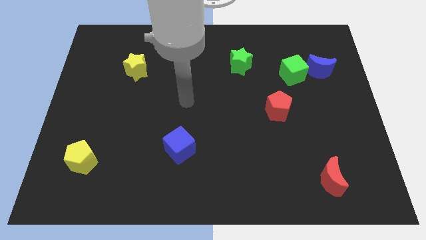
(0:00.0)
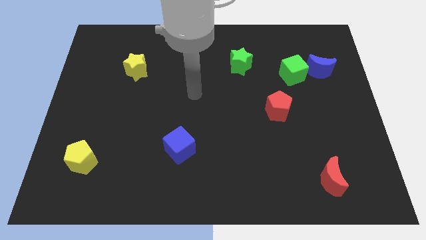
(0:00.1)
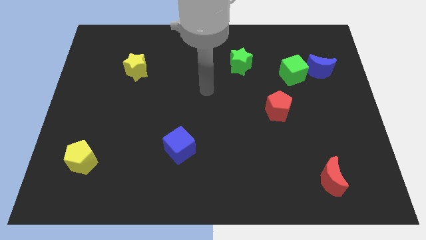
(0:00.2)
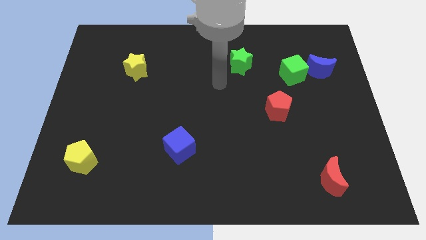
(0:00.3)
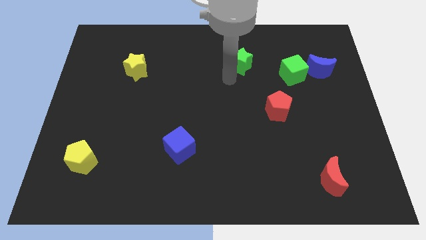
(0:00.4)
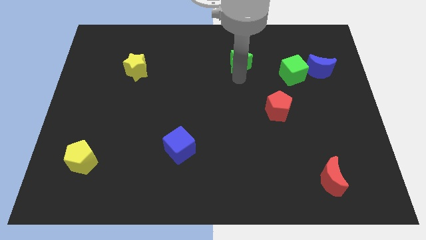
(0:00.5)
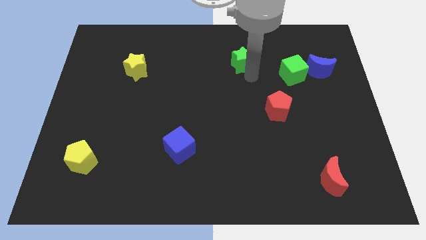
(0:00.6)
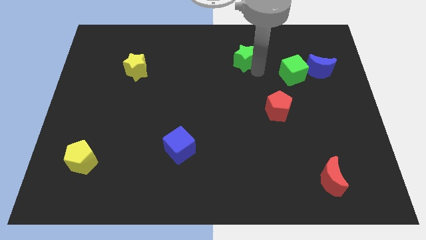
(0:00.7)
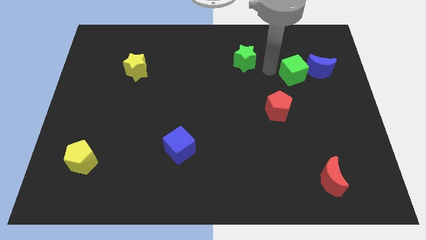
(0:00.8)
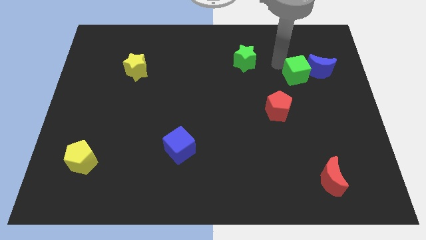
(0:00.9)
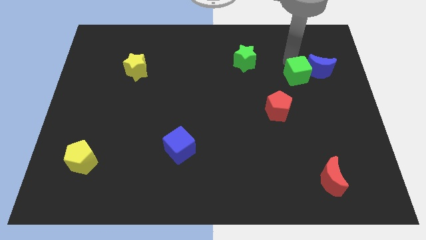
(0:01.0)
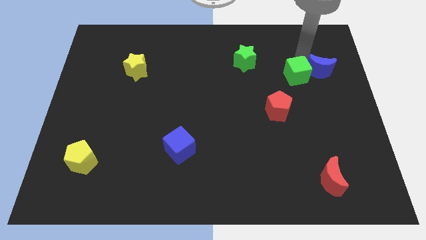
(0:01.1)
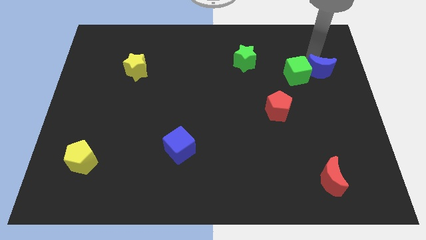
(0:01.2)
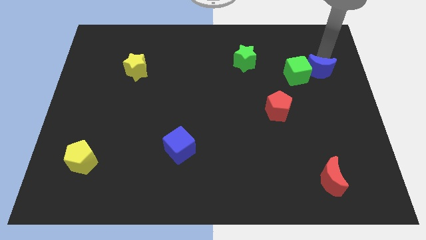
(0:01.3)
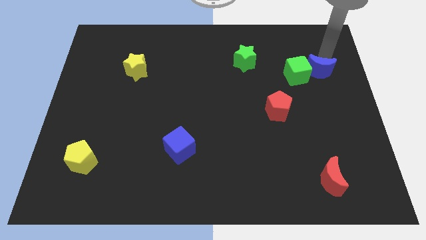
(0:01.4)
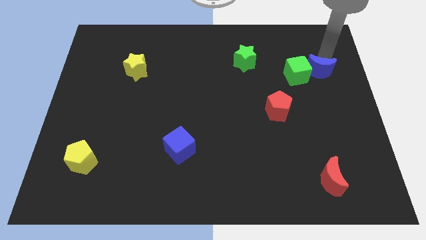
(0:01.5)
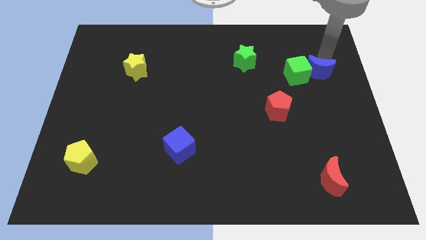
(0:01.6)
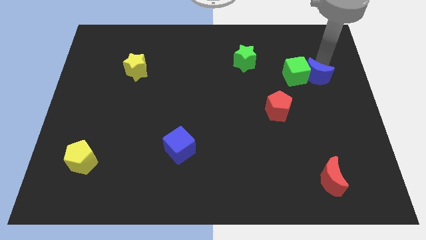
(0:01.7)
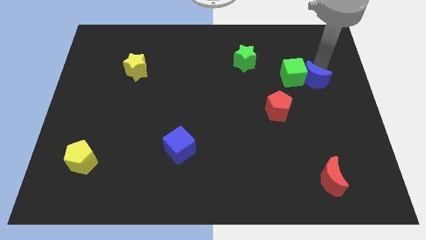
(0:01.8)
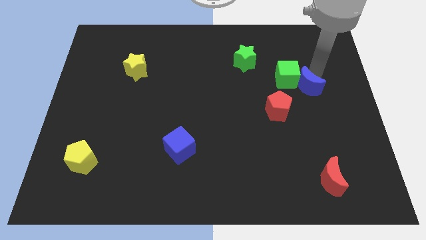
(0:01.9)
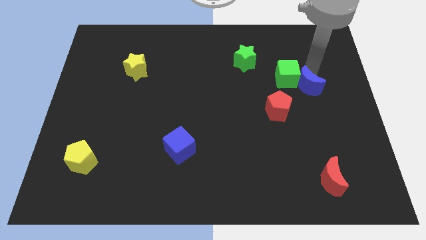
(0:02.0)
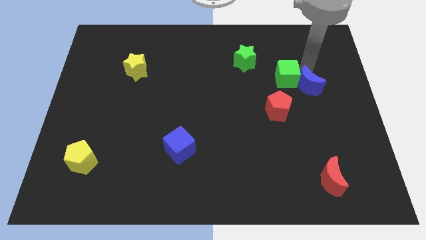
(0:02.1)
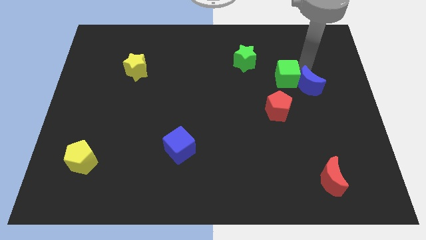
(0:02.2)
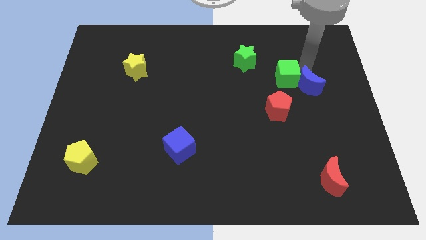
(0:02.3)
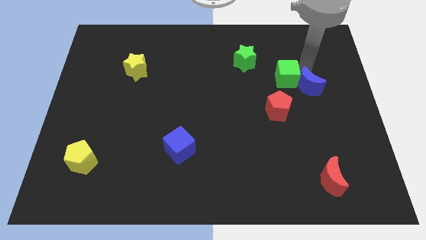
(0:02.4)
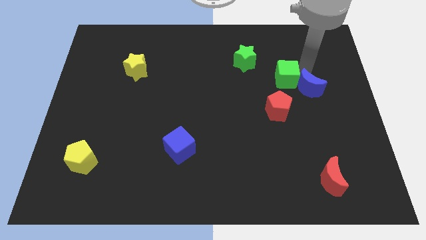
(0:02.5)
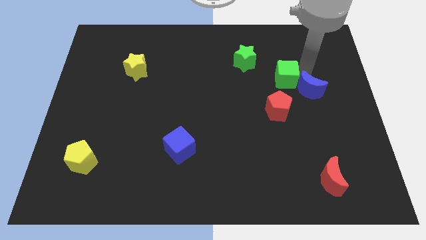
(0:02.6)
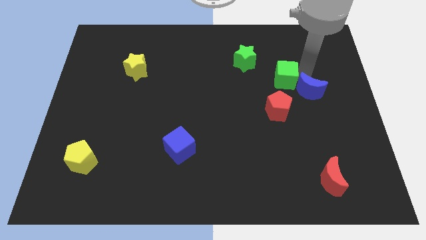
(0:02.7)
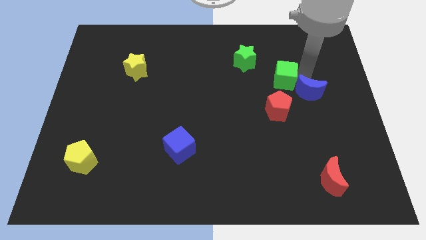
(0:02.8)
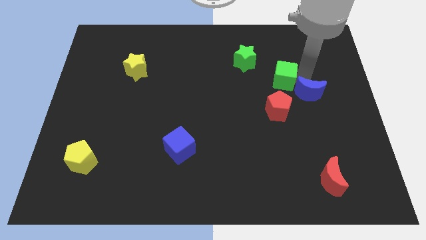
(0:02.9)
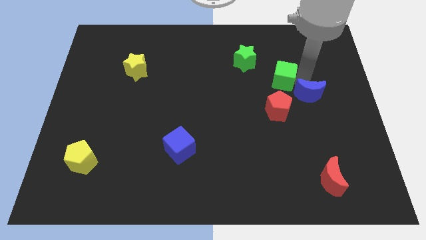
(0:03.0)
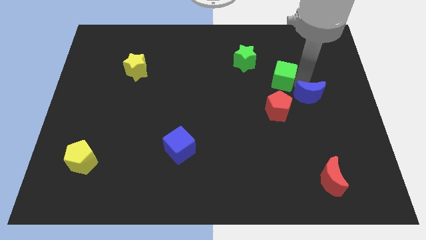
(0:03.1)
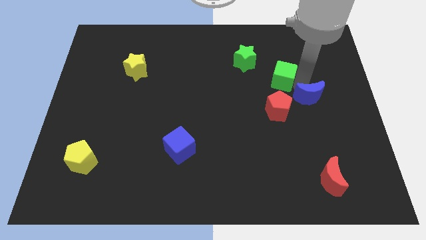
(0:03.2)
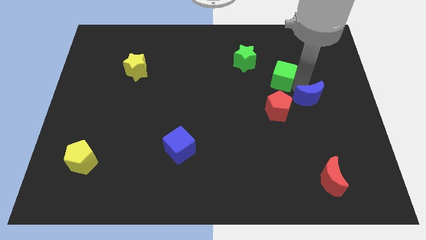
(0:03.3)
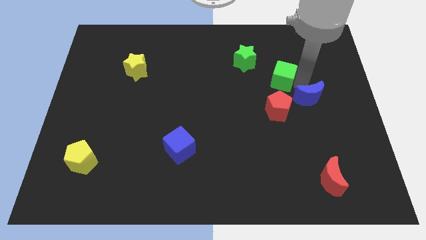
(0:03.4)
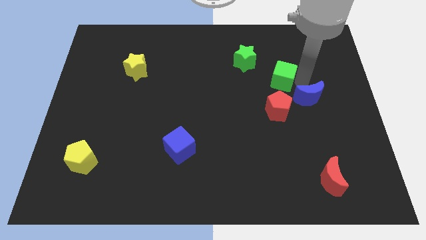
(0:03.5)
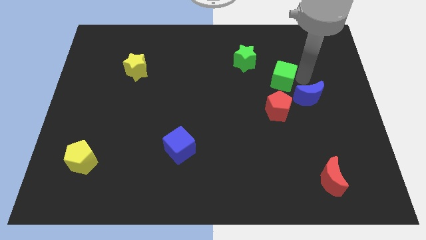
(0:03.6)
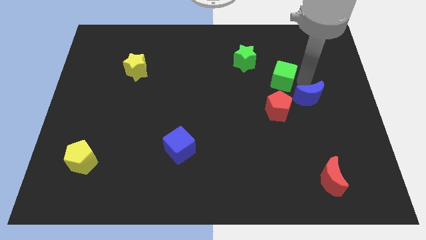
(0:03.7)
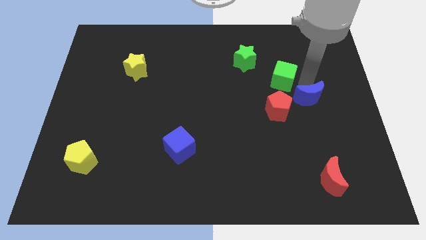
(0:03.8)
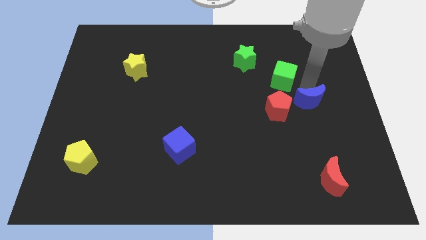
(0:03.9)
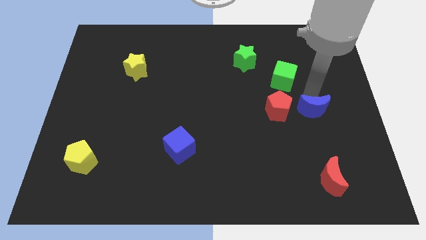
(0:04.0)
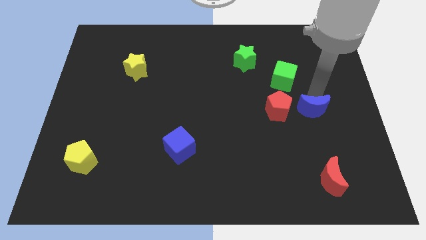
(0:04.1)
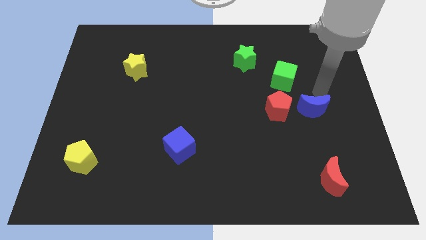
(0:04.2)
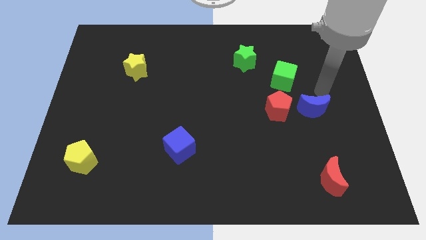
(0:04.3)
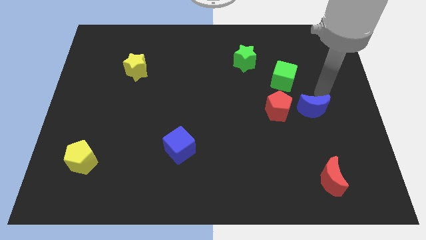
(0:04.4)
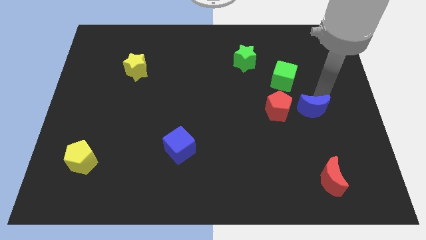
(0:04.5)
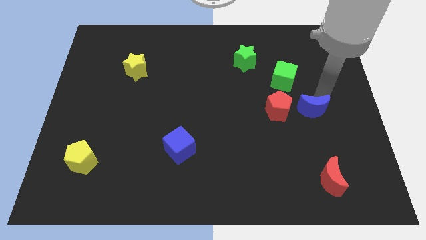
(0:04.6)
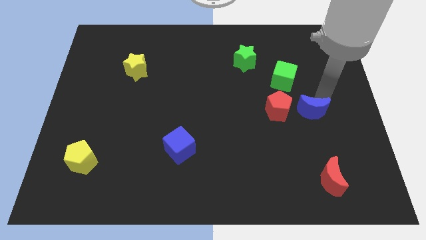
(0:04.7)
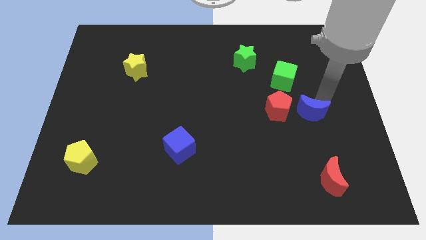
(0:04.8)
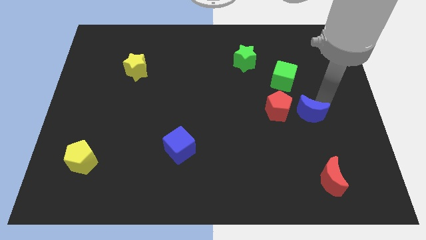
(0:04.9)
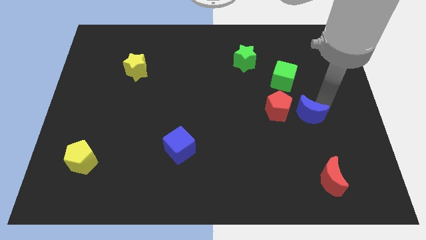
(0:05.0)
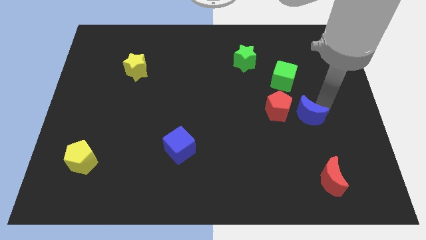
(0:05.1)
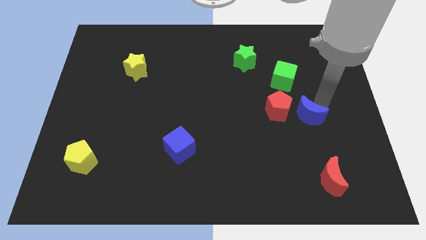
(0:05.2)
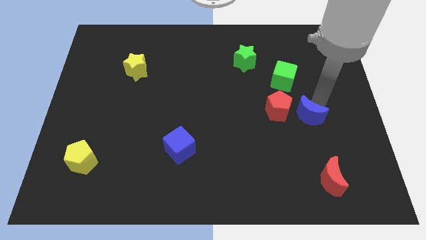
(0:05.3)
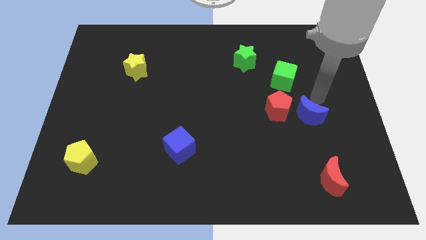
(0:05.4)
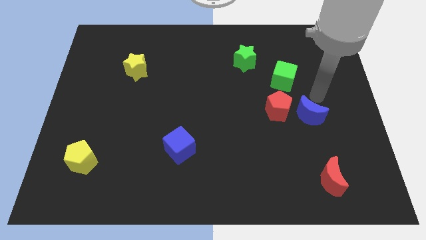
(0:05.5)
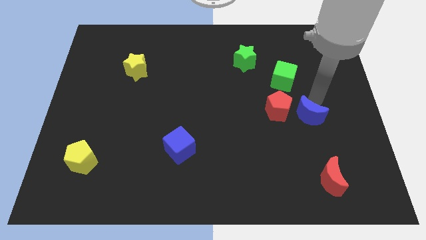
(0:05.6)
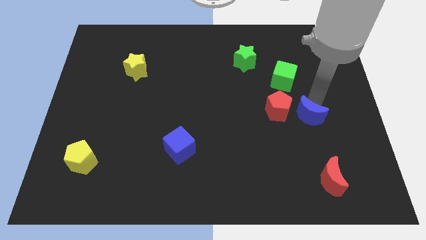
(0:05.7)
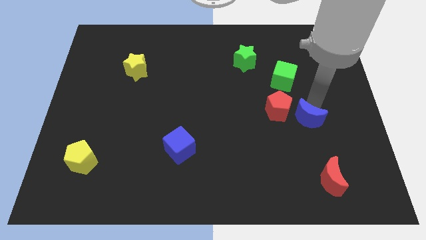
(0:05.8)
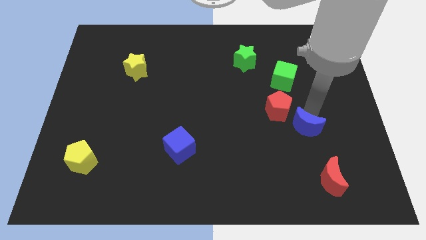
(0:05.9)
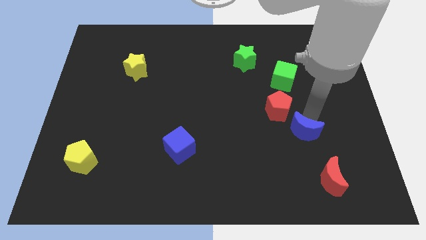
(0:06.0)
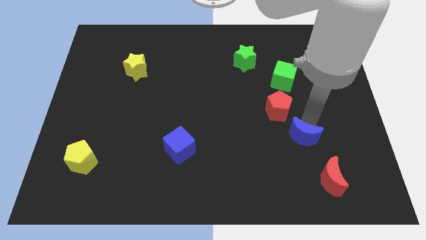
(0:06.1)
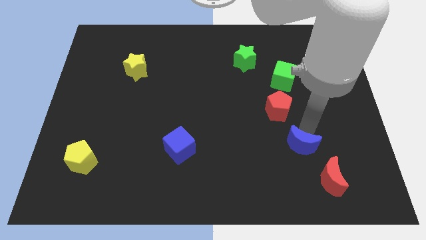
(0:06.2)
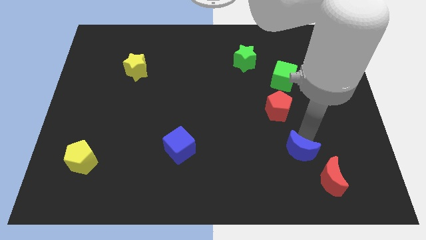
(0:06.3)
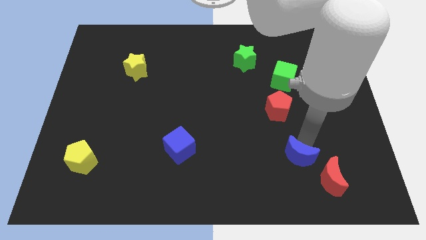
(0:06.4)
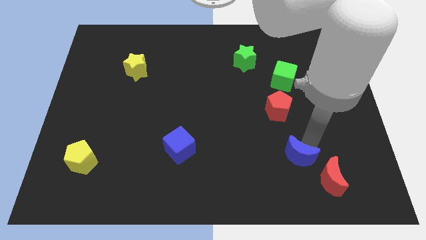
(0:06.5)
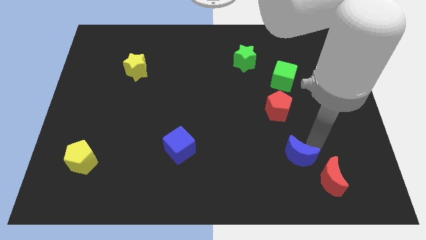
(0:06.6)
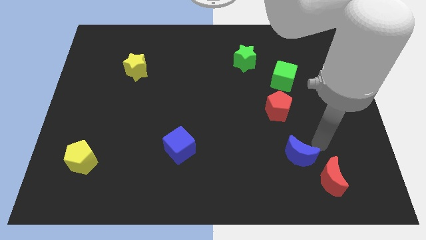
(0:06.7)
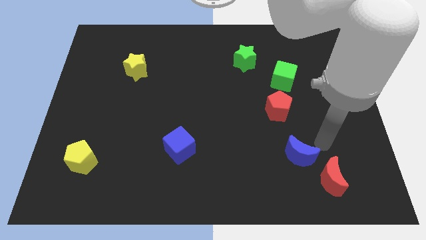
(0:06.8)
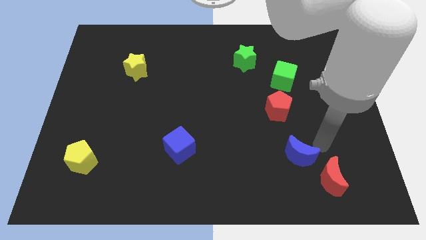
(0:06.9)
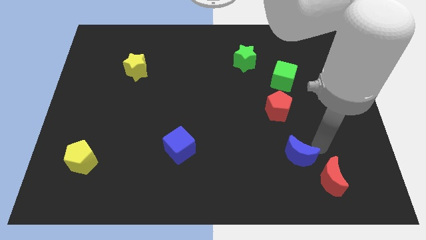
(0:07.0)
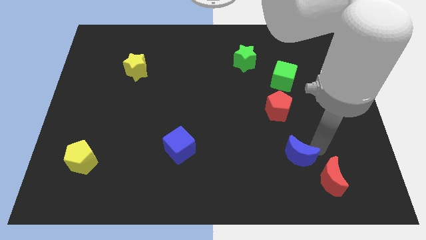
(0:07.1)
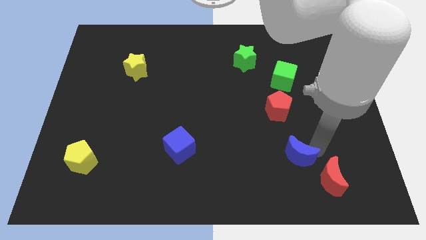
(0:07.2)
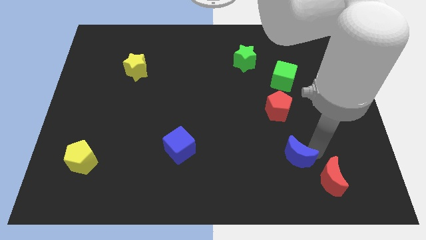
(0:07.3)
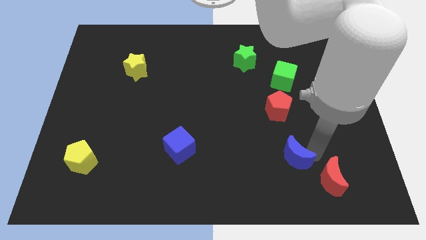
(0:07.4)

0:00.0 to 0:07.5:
slide the blue moon to the left of the red moon
